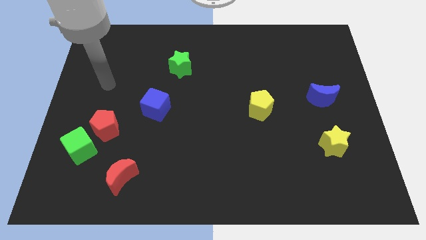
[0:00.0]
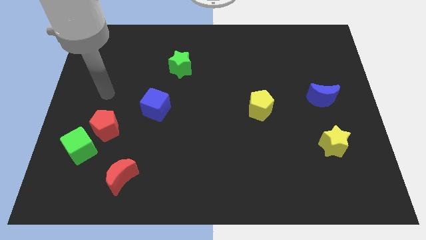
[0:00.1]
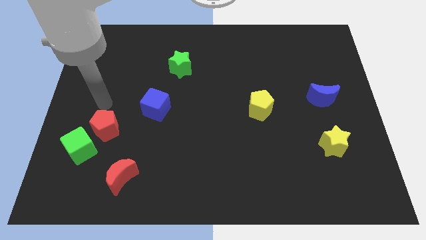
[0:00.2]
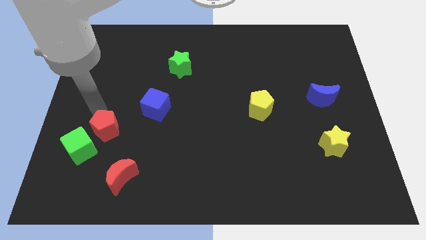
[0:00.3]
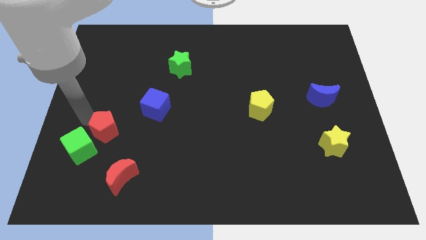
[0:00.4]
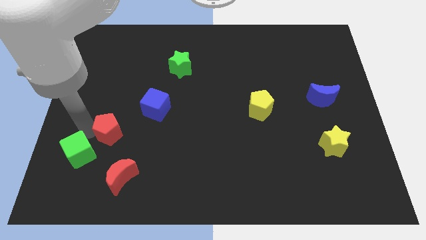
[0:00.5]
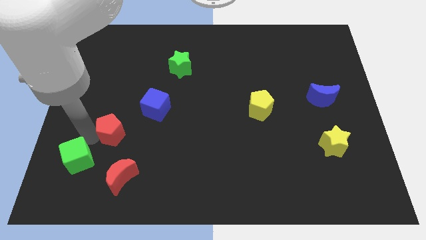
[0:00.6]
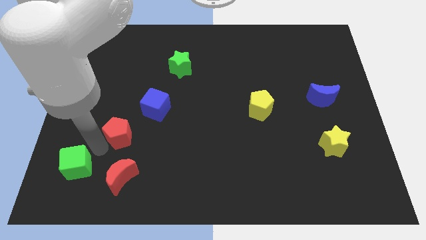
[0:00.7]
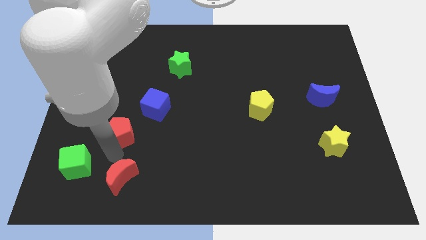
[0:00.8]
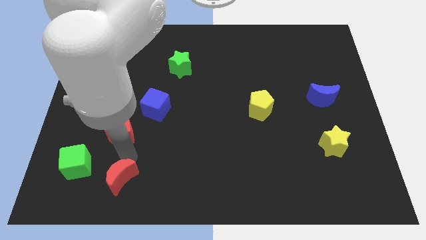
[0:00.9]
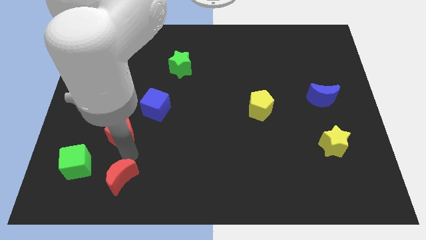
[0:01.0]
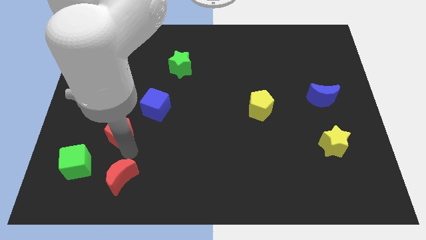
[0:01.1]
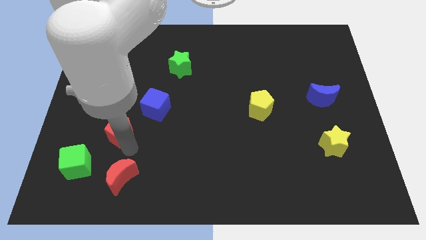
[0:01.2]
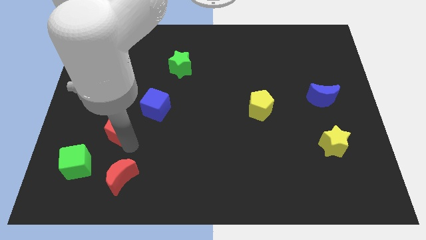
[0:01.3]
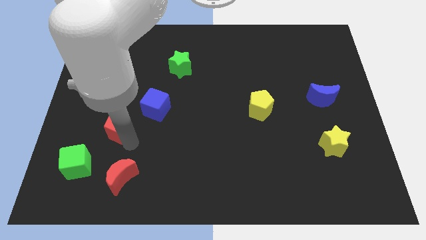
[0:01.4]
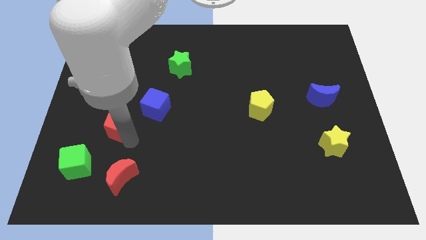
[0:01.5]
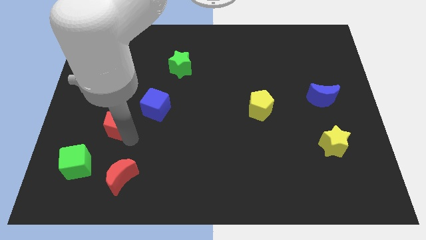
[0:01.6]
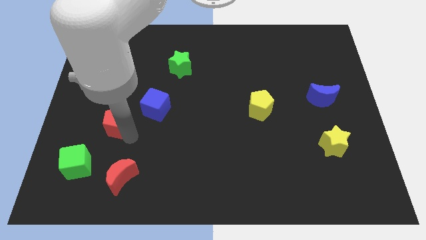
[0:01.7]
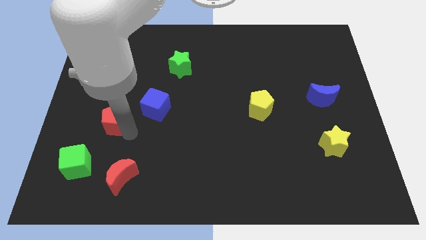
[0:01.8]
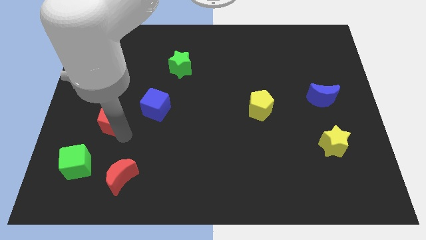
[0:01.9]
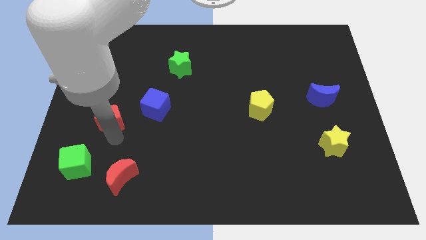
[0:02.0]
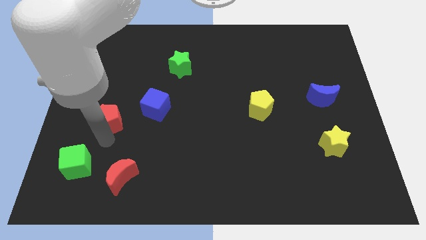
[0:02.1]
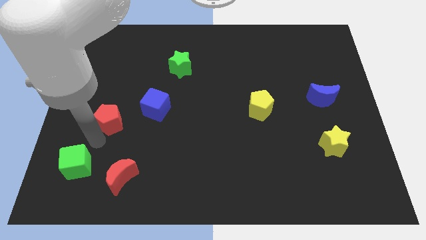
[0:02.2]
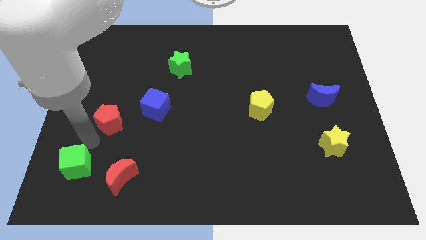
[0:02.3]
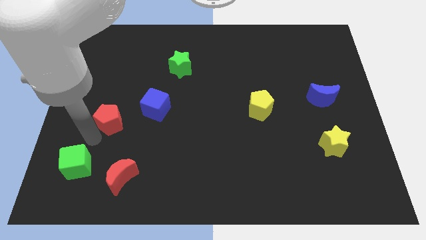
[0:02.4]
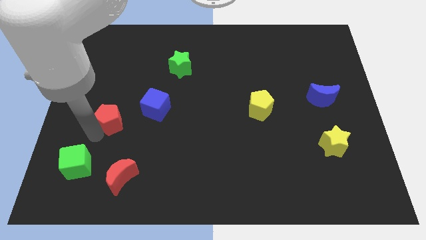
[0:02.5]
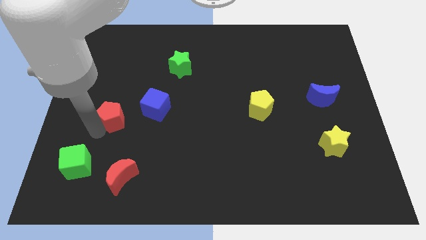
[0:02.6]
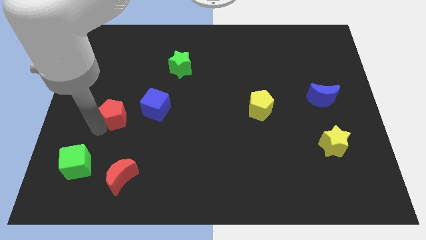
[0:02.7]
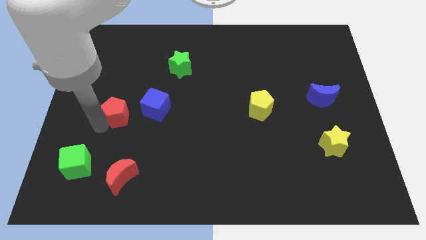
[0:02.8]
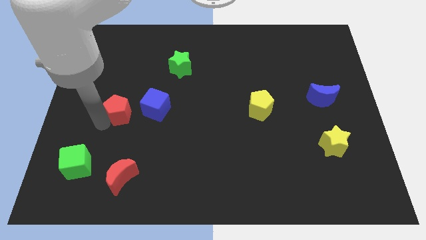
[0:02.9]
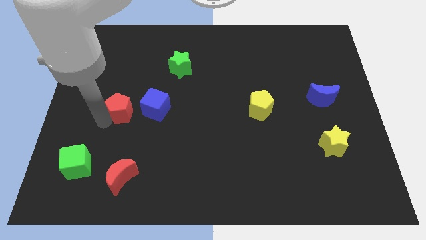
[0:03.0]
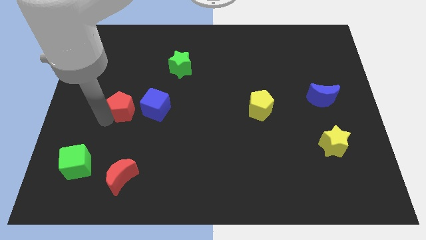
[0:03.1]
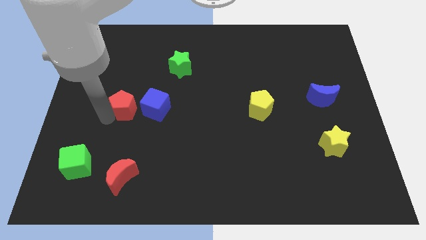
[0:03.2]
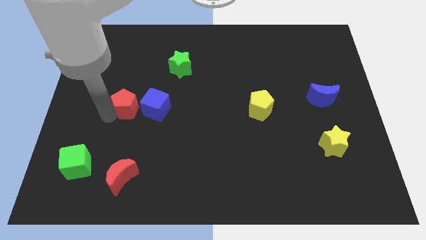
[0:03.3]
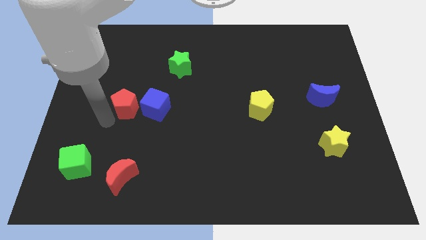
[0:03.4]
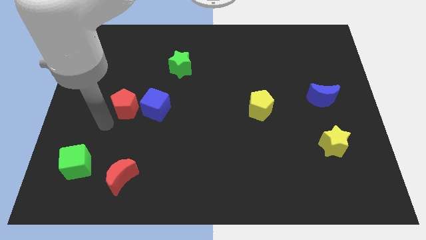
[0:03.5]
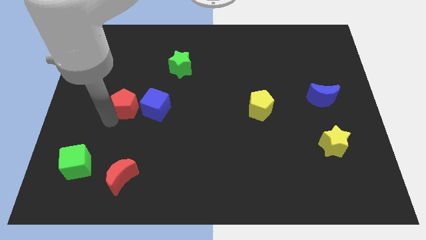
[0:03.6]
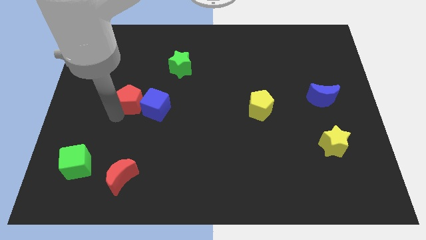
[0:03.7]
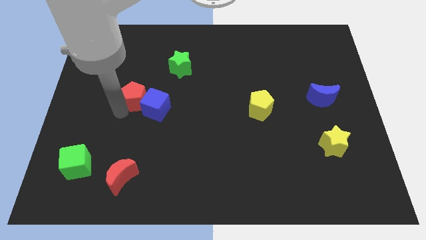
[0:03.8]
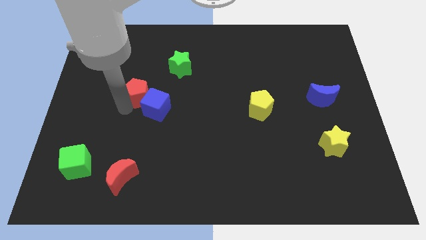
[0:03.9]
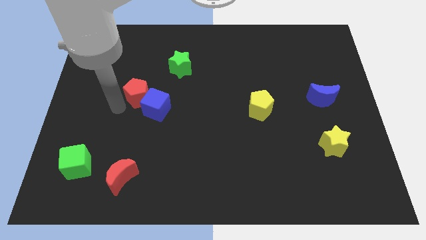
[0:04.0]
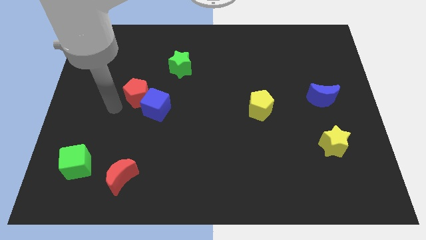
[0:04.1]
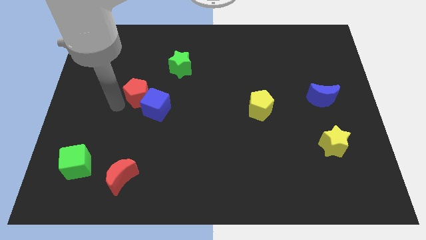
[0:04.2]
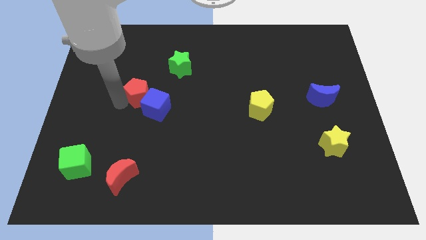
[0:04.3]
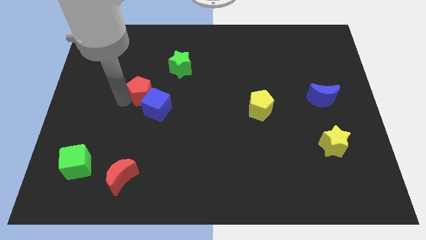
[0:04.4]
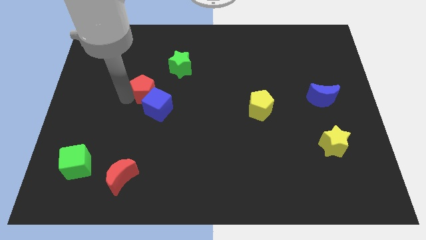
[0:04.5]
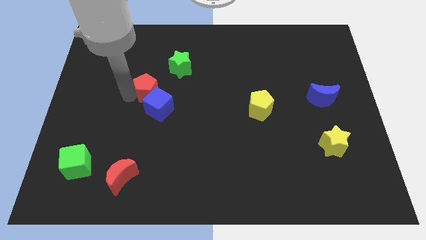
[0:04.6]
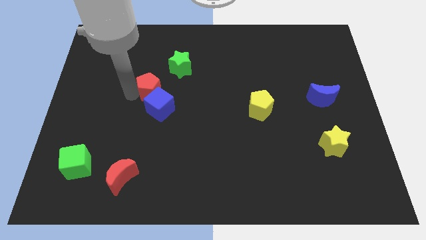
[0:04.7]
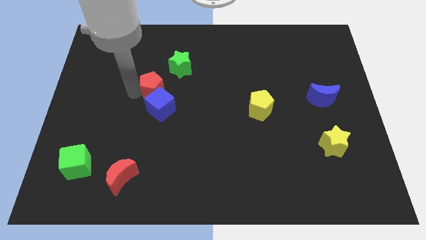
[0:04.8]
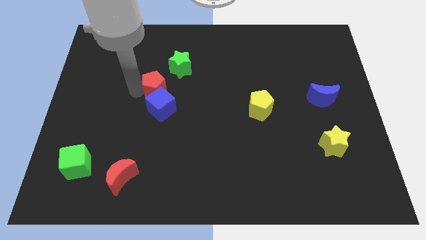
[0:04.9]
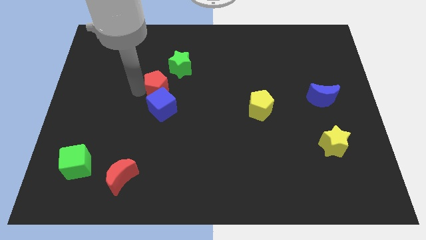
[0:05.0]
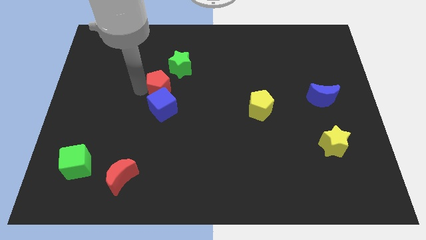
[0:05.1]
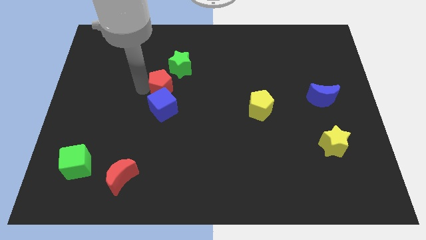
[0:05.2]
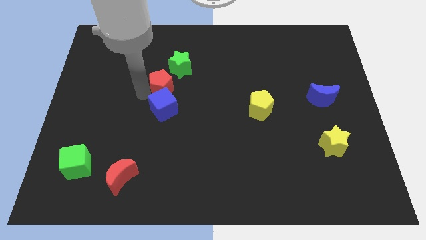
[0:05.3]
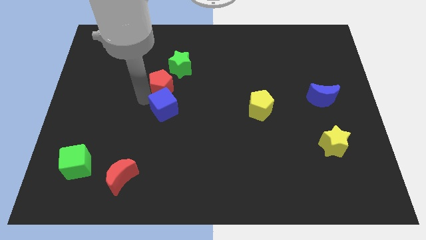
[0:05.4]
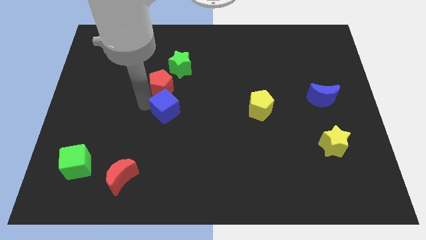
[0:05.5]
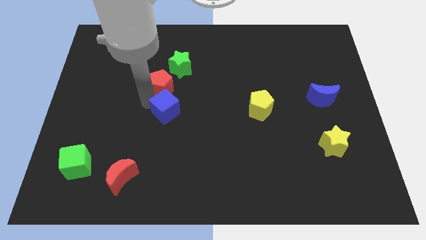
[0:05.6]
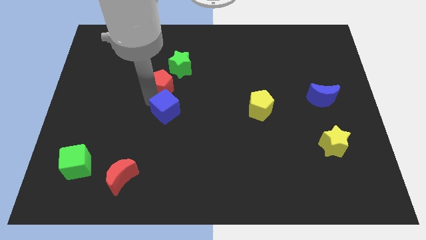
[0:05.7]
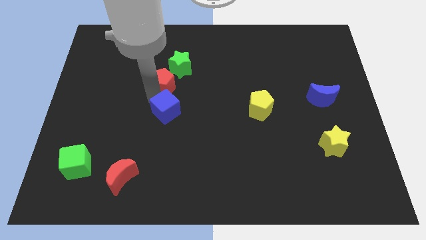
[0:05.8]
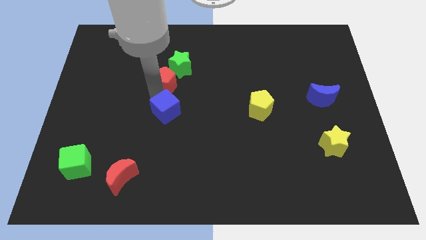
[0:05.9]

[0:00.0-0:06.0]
put the red pentagon to the green star
